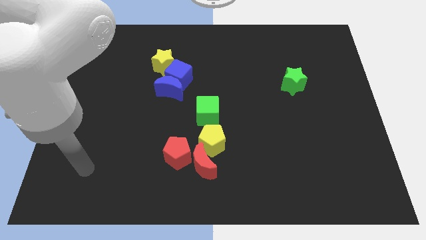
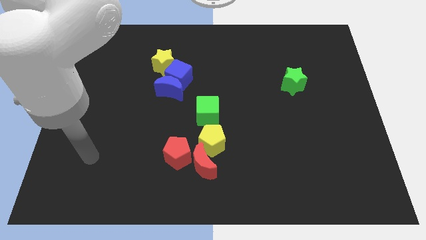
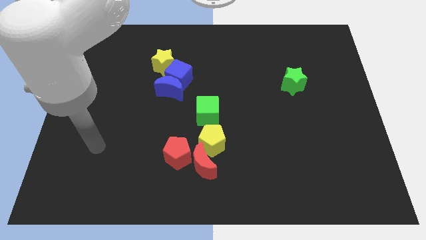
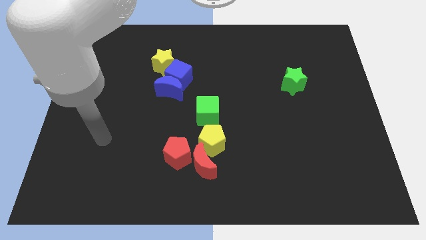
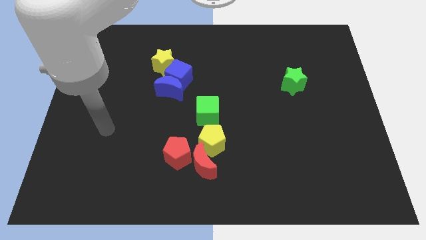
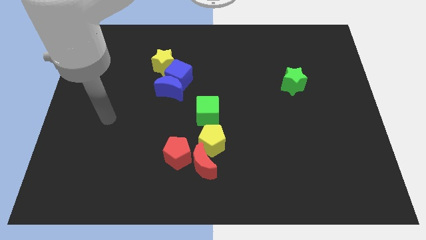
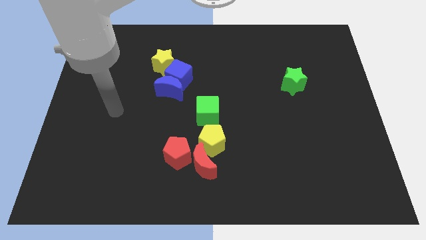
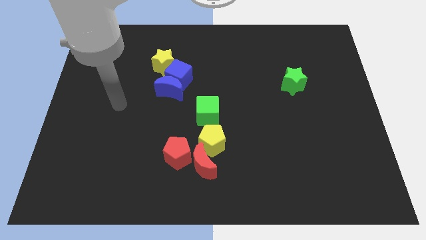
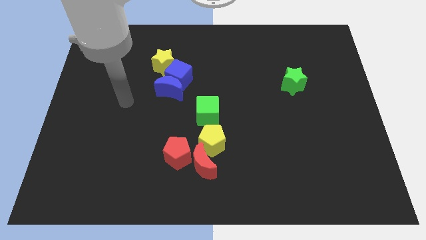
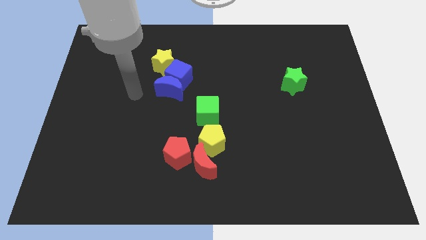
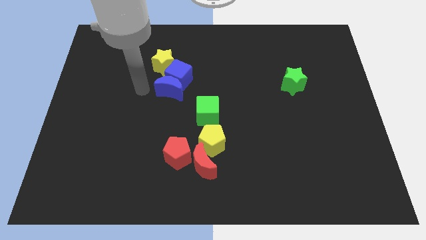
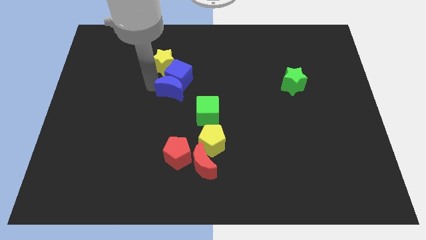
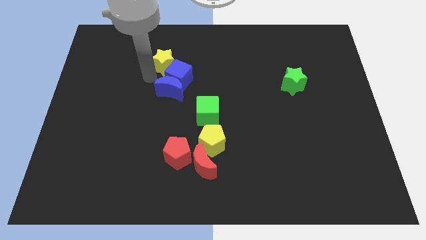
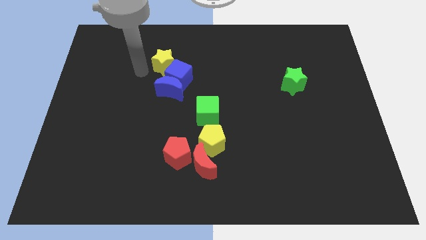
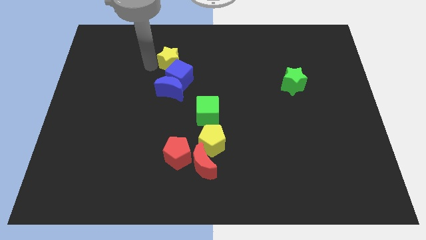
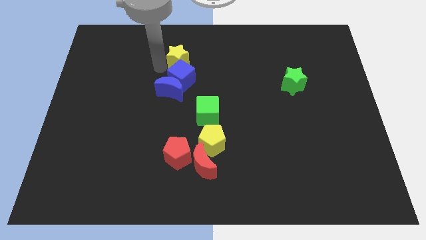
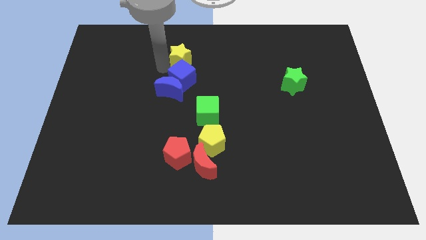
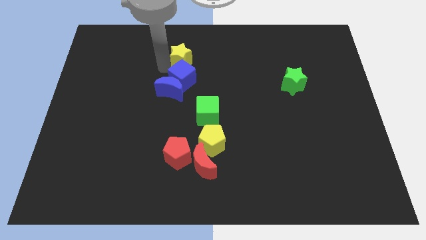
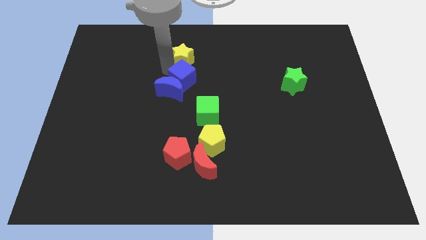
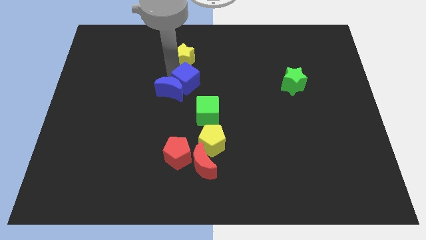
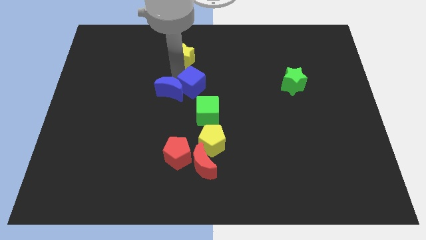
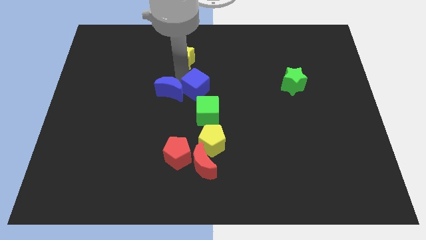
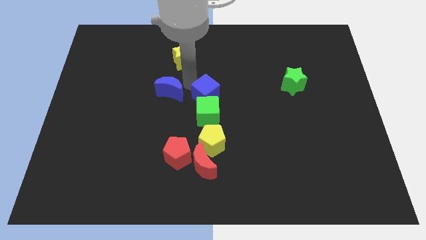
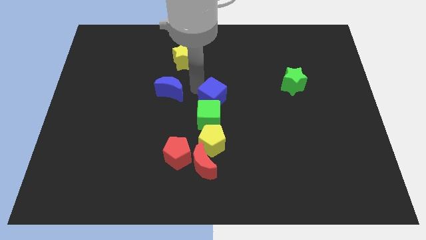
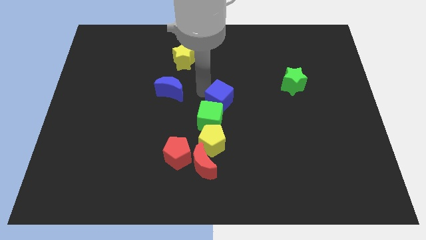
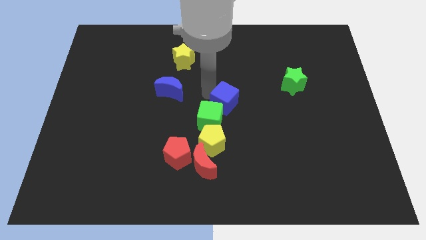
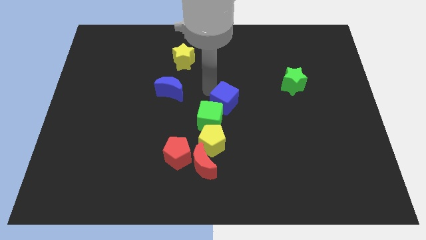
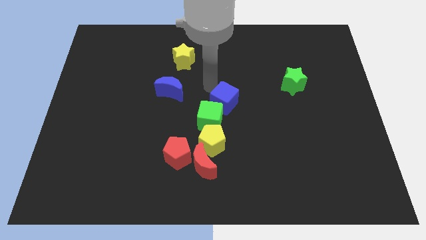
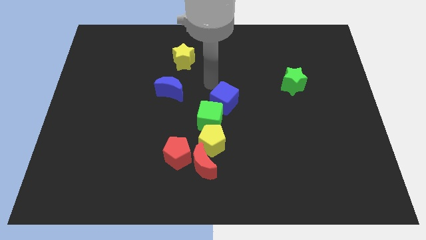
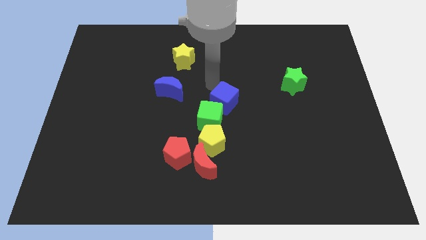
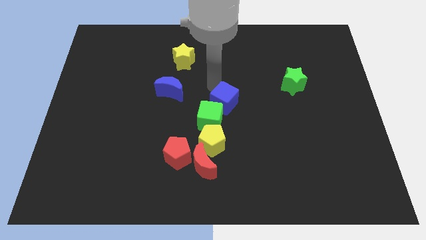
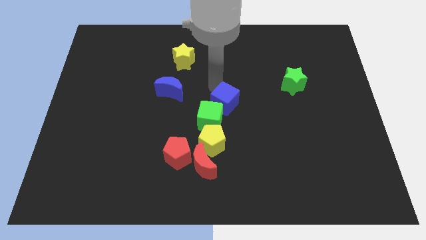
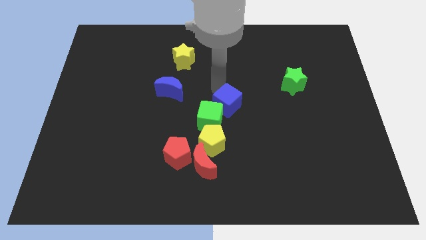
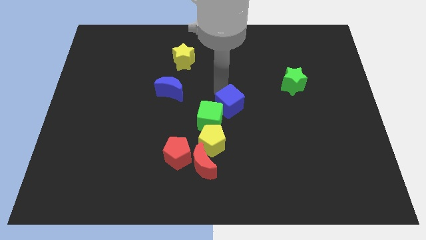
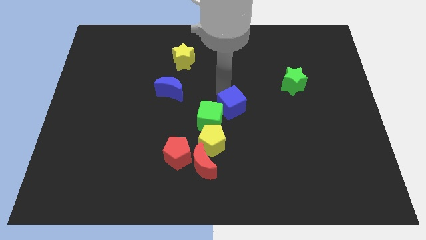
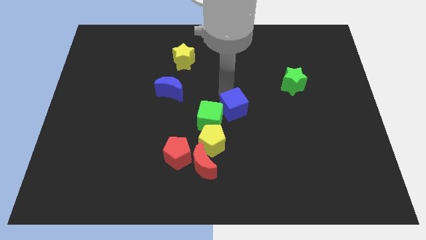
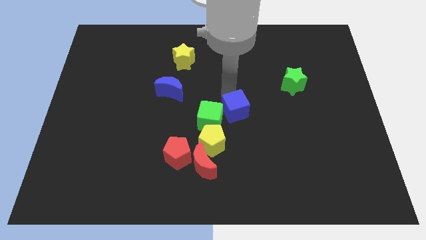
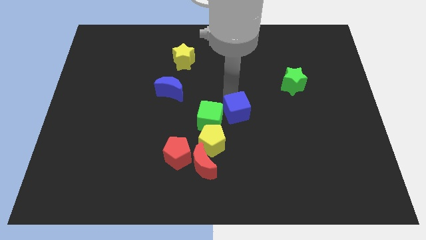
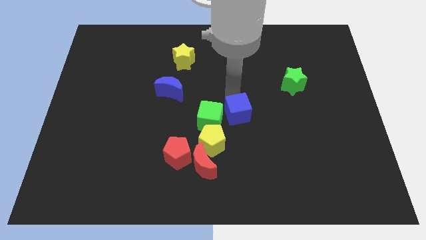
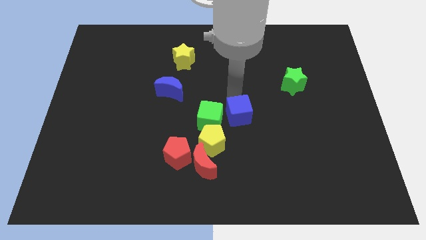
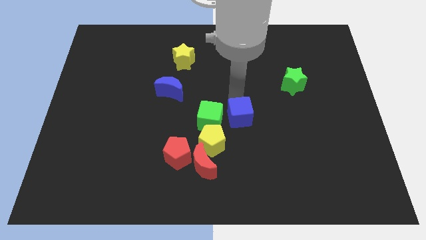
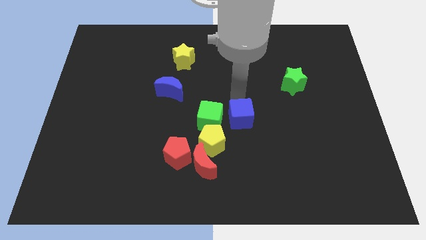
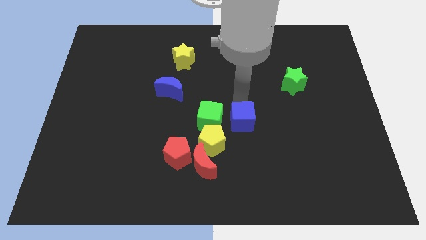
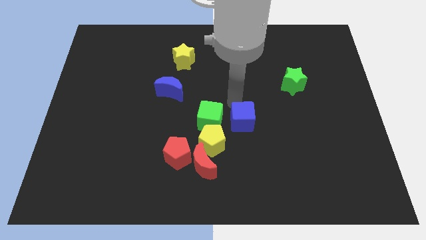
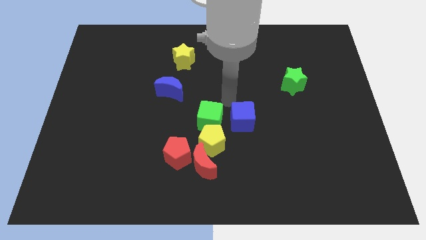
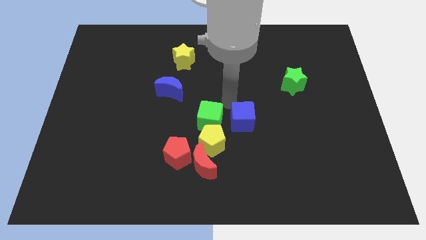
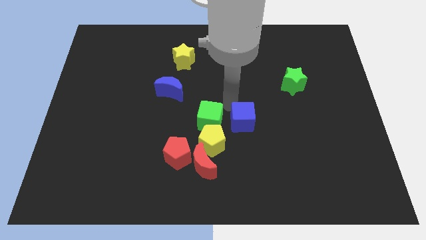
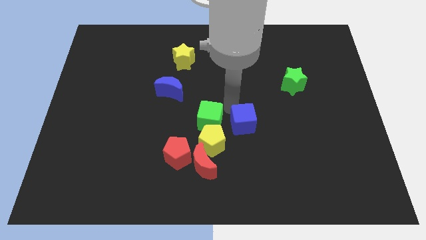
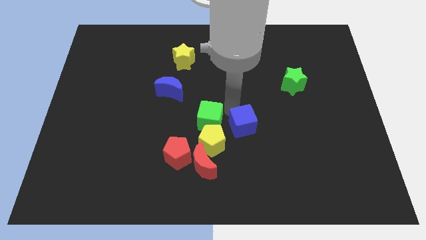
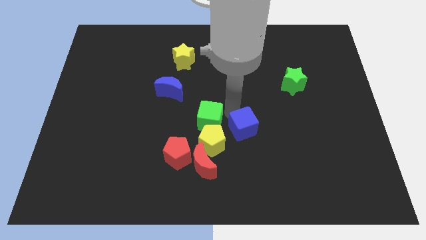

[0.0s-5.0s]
put the blue cube to the right of the yellow pentagon

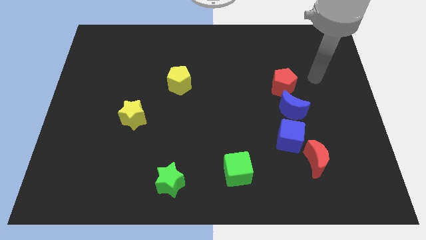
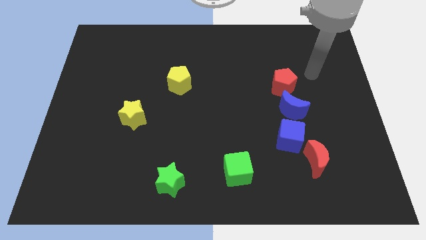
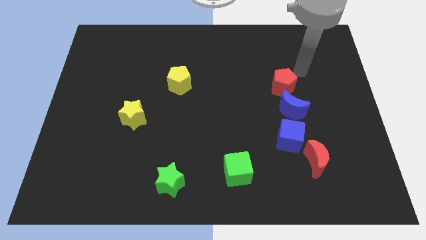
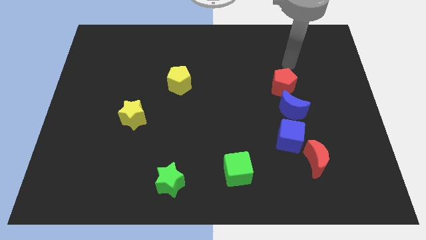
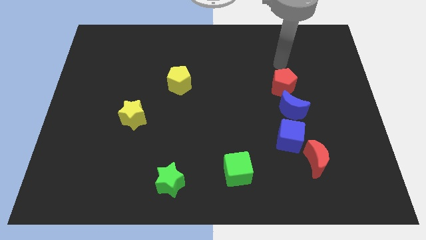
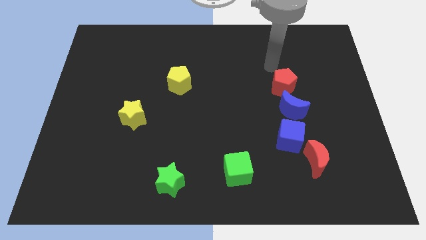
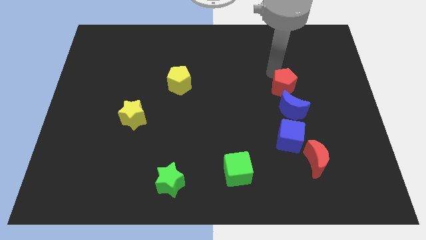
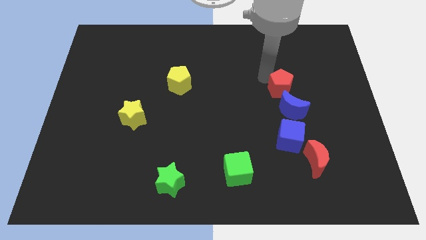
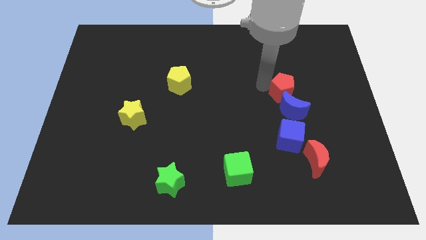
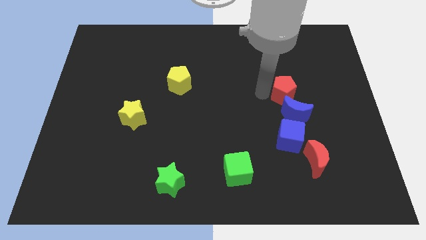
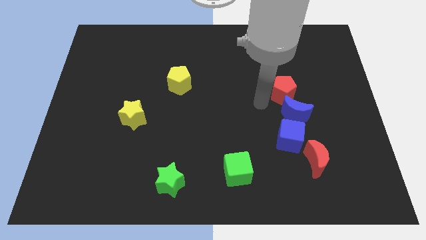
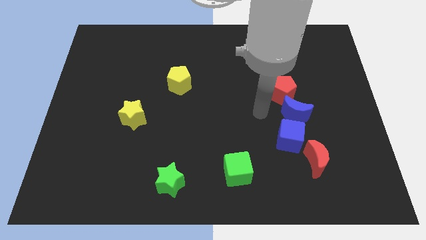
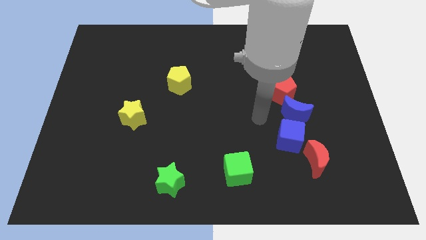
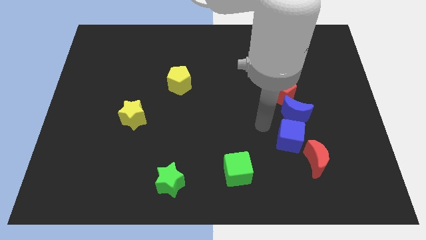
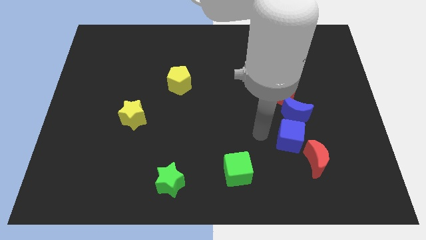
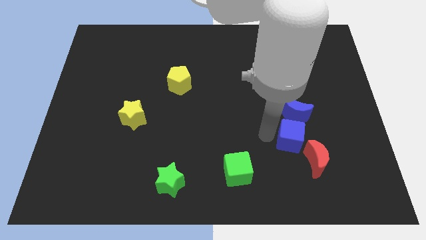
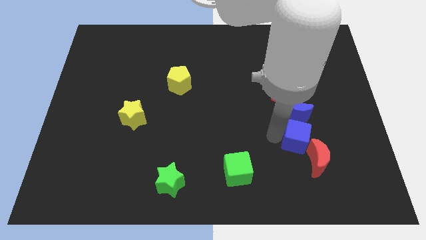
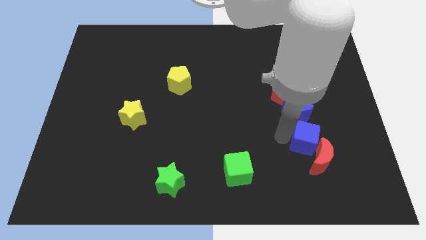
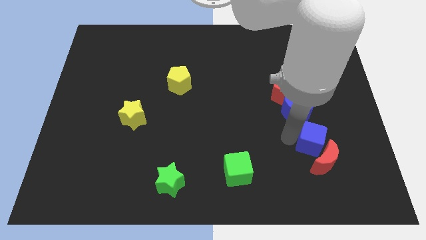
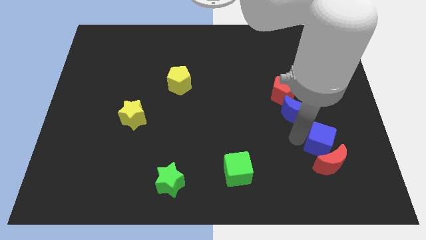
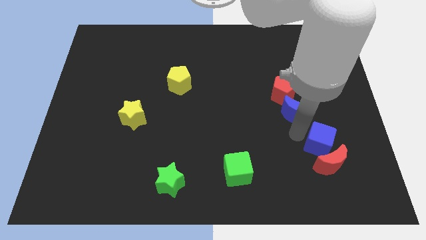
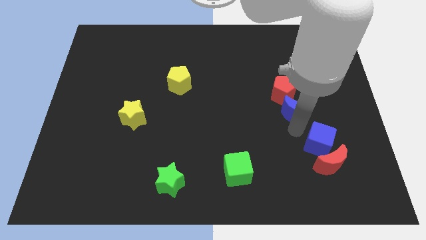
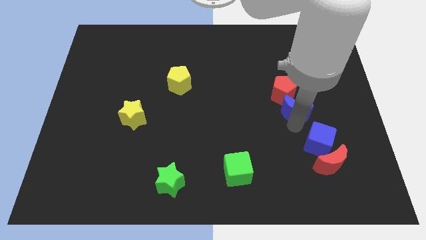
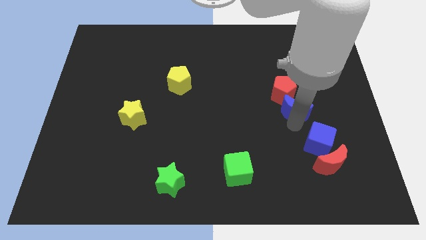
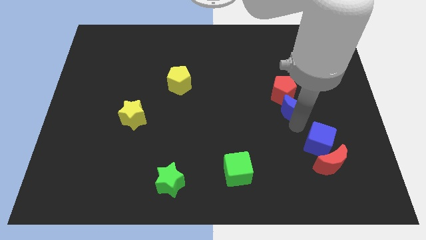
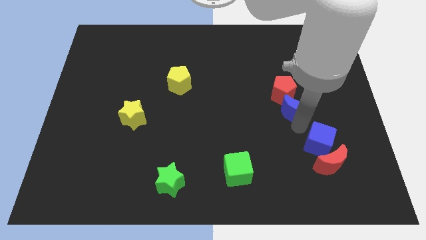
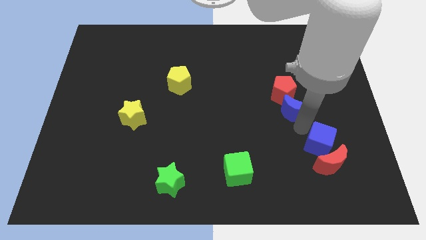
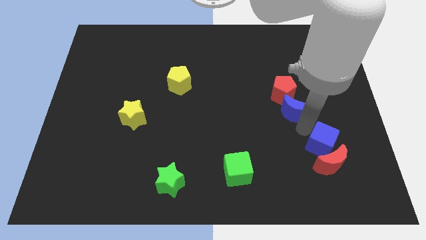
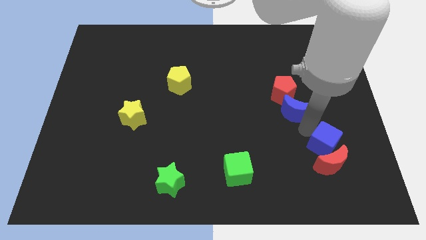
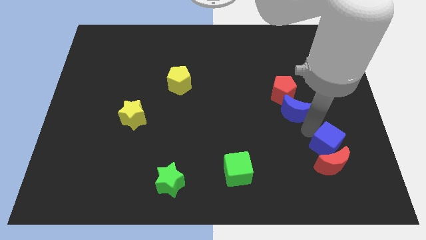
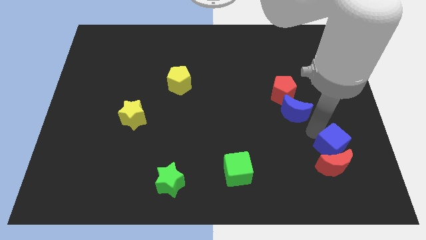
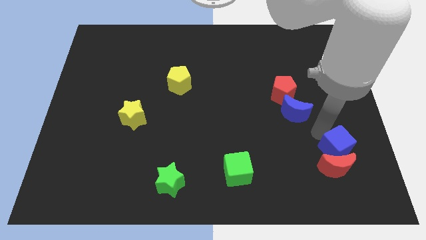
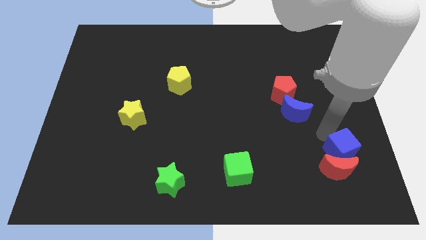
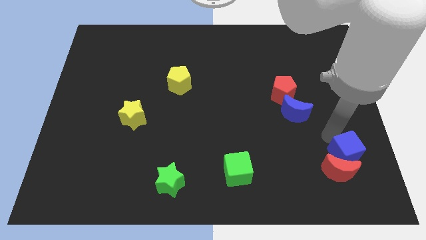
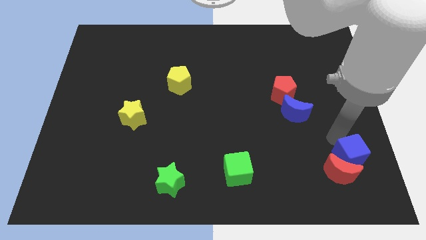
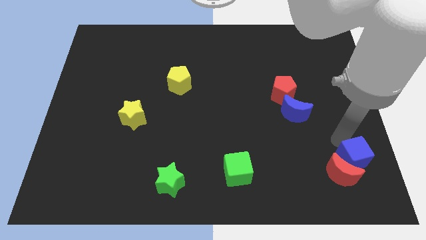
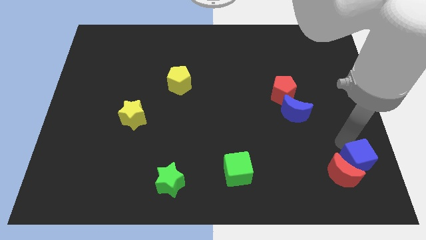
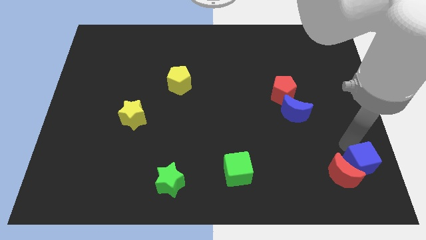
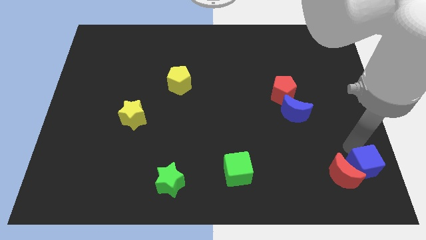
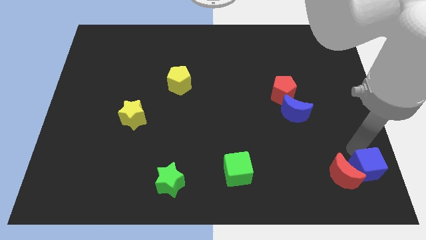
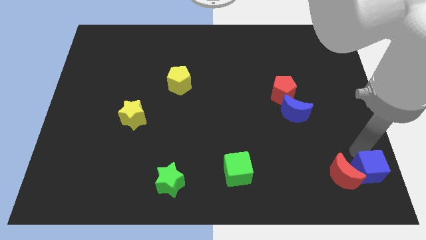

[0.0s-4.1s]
put the blue cube diagonally down and to the right of the red moon
